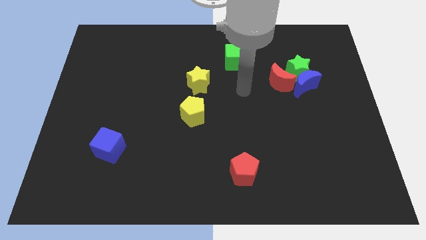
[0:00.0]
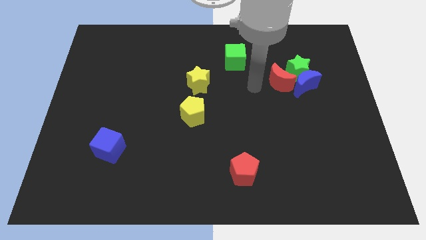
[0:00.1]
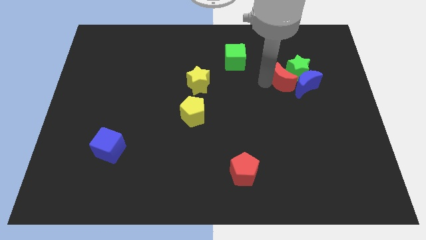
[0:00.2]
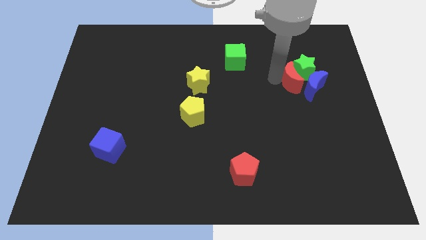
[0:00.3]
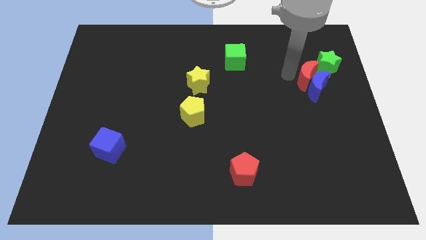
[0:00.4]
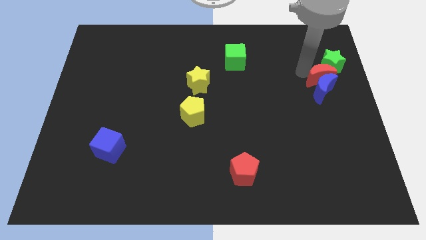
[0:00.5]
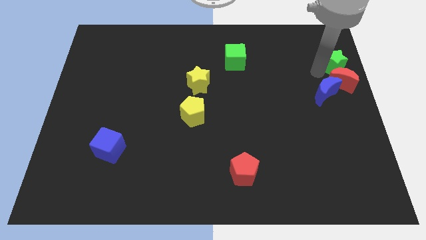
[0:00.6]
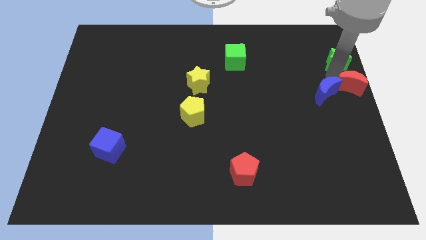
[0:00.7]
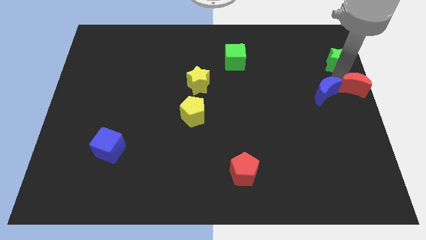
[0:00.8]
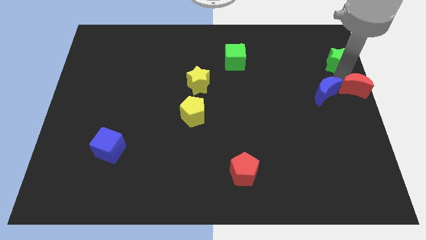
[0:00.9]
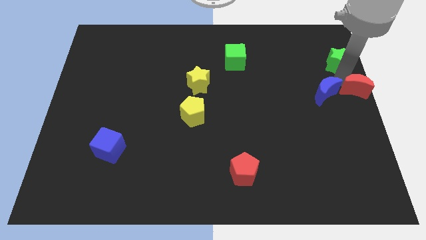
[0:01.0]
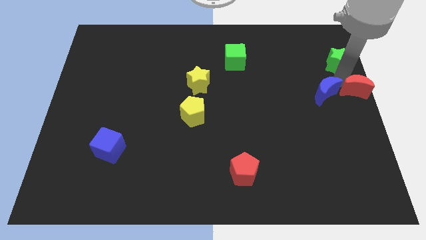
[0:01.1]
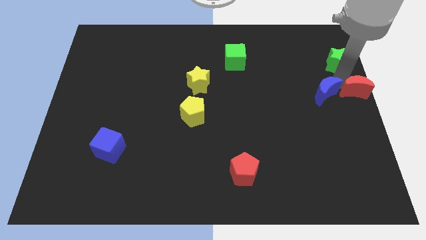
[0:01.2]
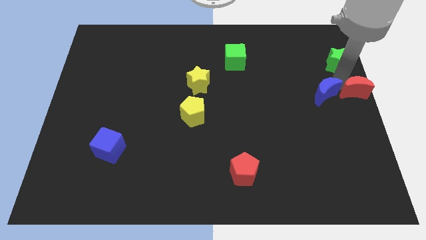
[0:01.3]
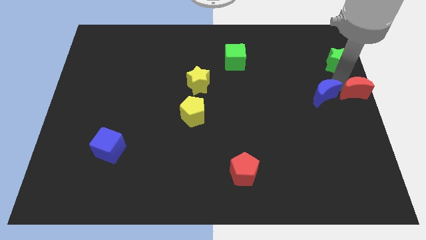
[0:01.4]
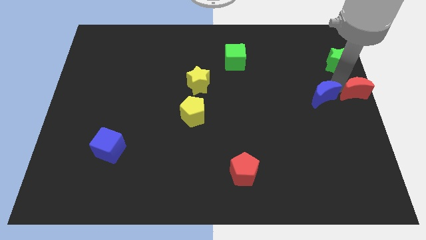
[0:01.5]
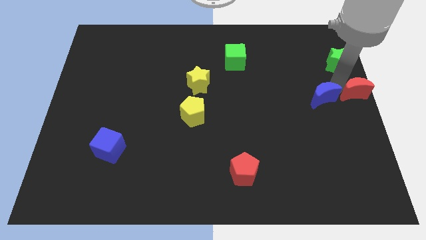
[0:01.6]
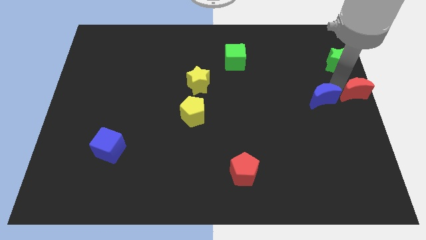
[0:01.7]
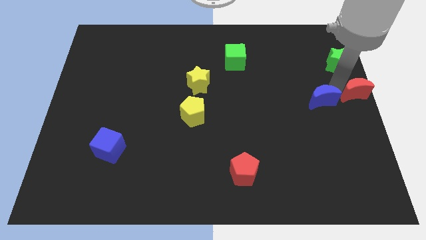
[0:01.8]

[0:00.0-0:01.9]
separate the blue moon from the green star and red moon

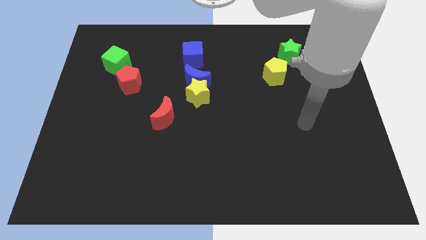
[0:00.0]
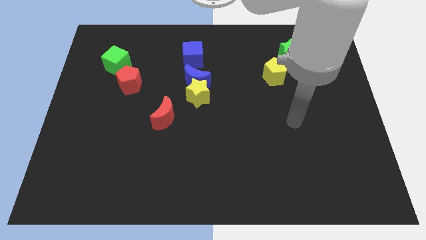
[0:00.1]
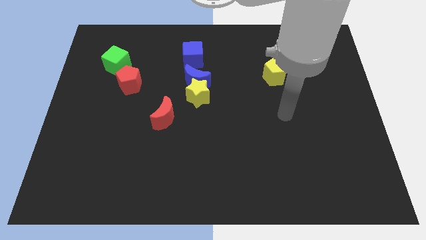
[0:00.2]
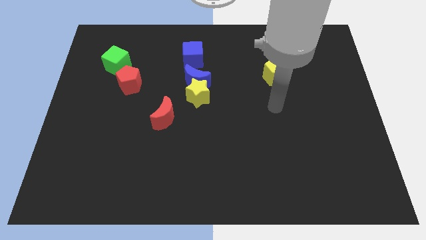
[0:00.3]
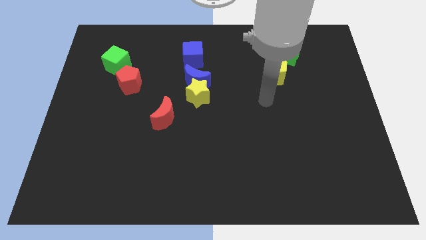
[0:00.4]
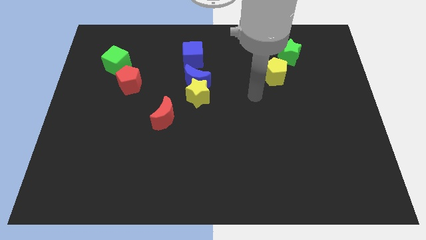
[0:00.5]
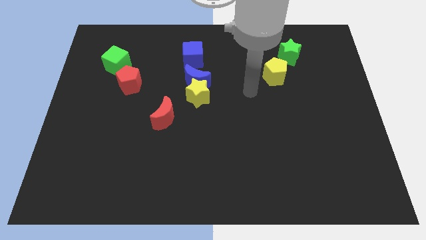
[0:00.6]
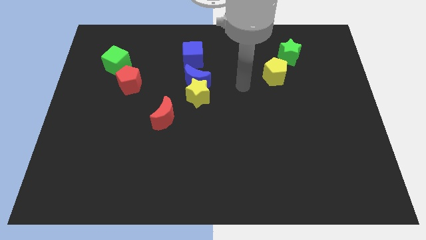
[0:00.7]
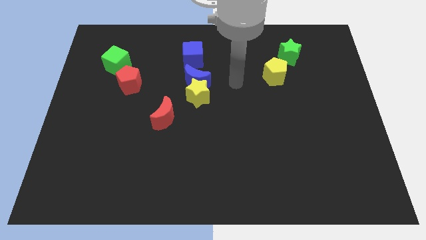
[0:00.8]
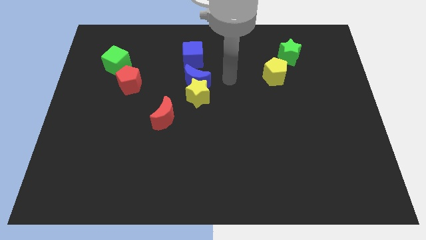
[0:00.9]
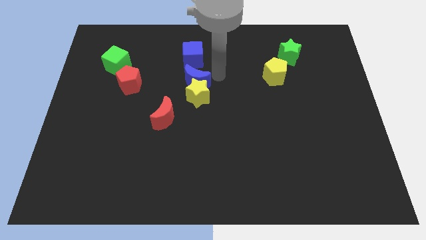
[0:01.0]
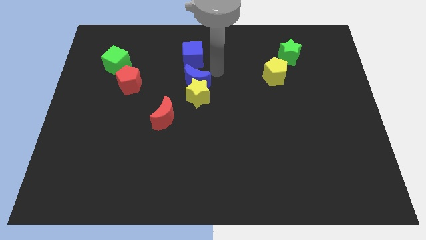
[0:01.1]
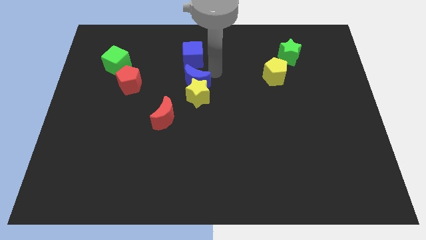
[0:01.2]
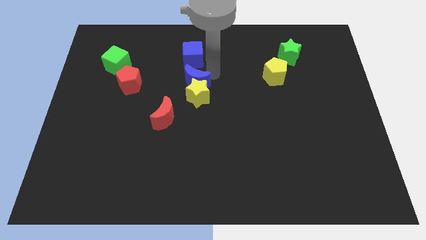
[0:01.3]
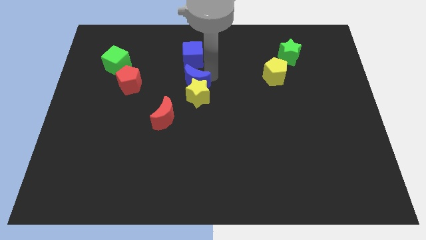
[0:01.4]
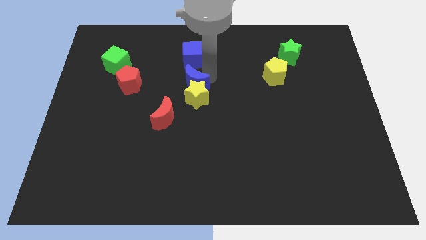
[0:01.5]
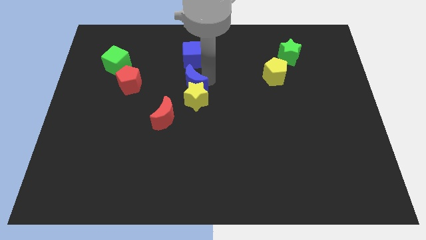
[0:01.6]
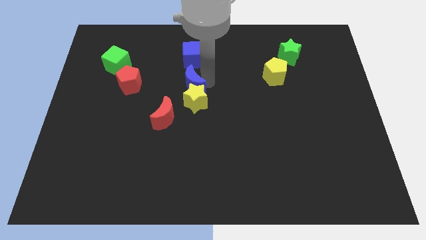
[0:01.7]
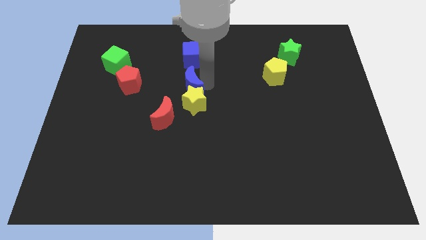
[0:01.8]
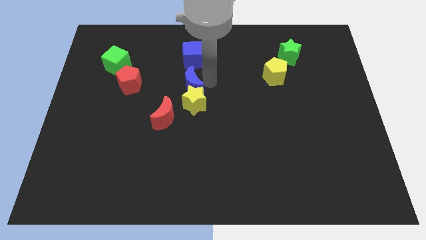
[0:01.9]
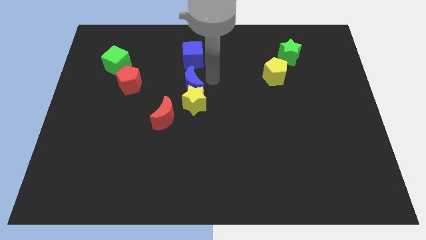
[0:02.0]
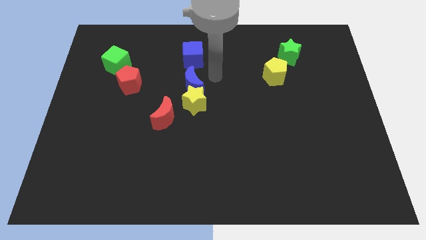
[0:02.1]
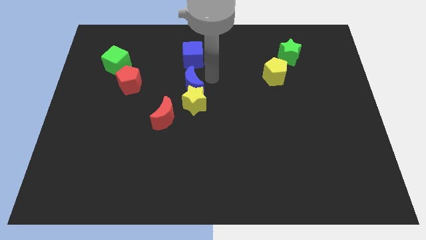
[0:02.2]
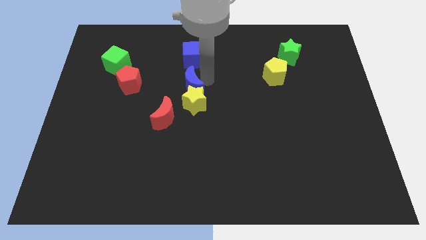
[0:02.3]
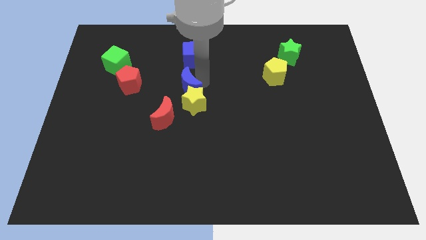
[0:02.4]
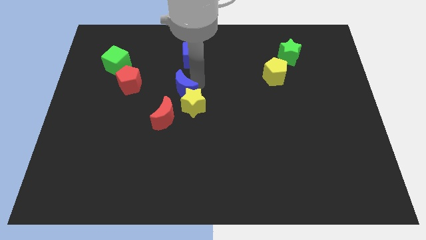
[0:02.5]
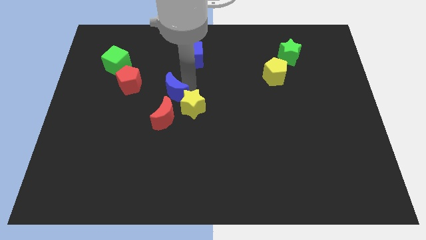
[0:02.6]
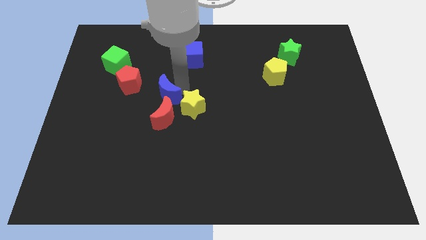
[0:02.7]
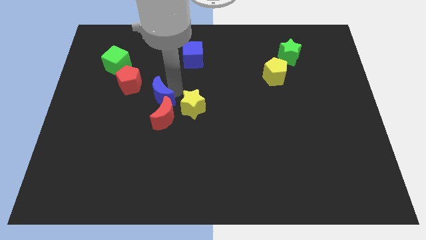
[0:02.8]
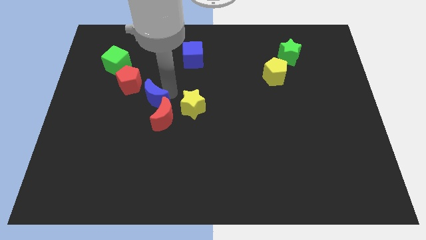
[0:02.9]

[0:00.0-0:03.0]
move the blue moon away from the yellow star and blue cube

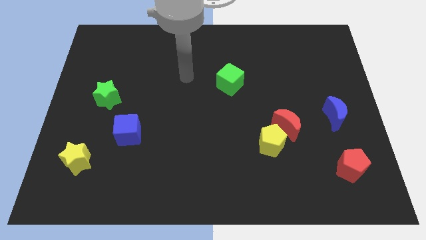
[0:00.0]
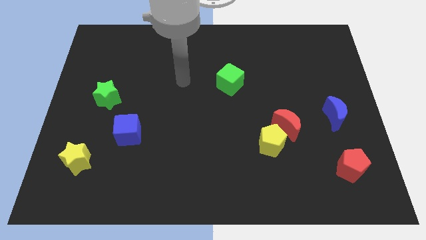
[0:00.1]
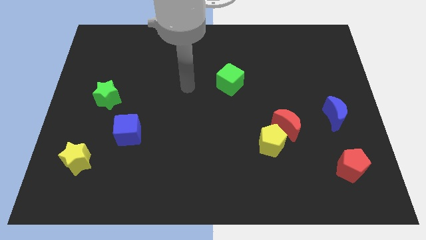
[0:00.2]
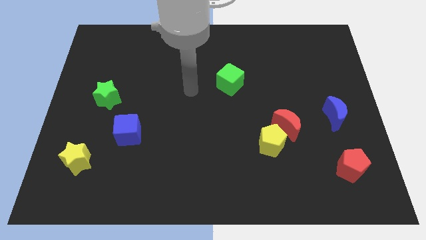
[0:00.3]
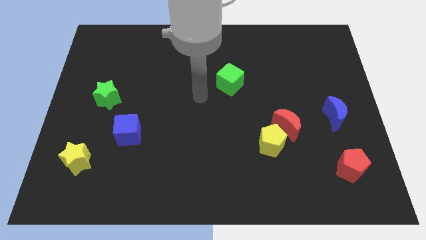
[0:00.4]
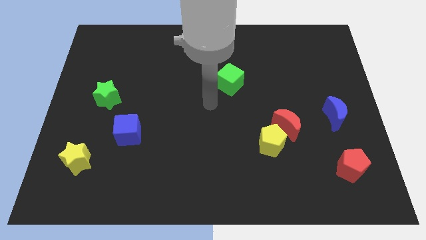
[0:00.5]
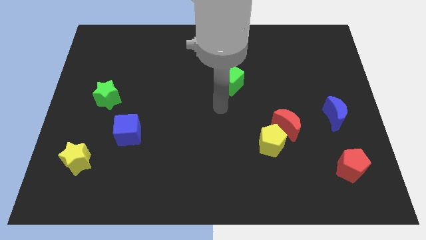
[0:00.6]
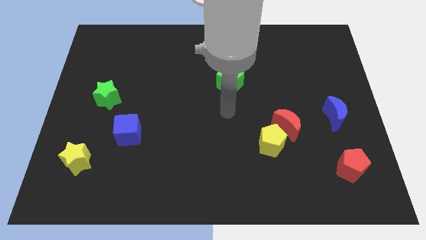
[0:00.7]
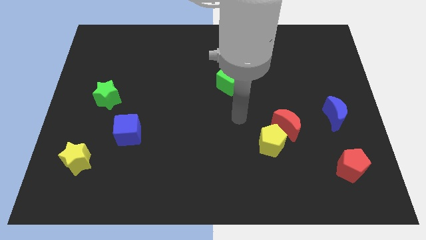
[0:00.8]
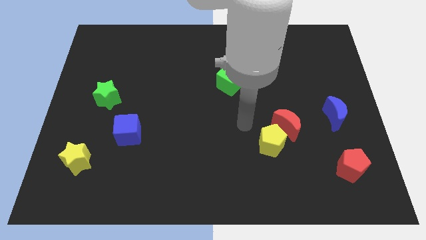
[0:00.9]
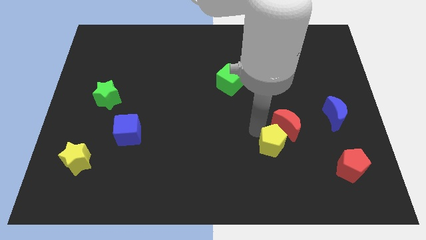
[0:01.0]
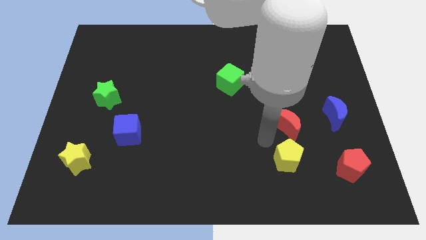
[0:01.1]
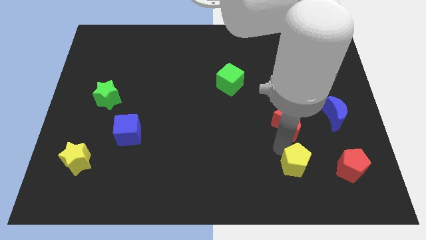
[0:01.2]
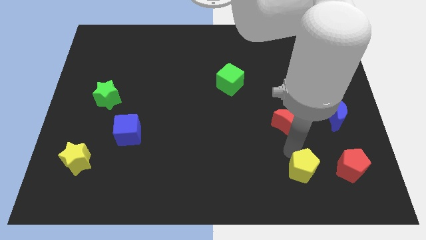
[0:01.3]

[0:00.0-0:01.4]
separate the red moon from the yellow pentagon

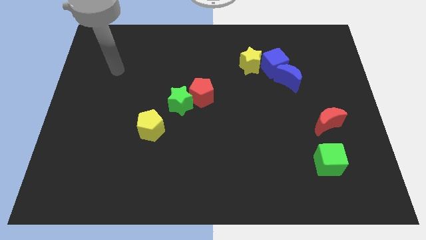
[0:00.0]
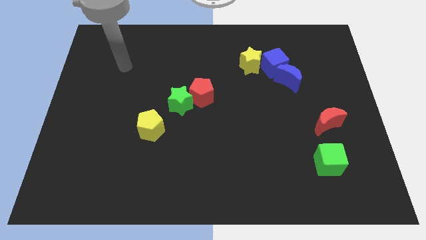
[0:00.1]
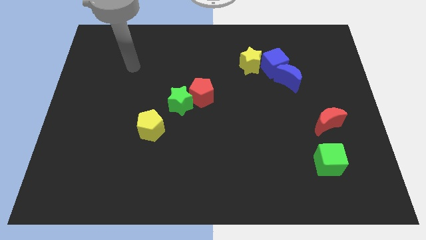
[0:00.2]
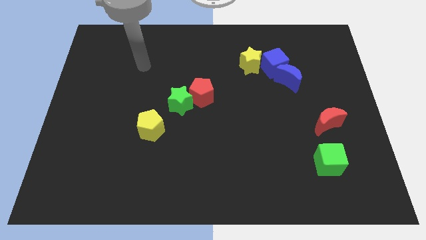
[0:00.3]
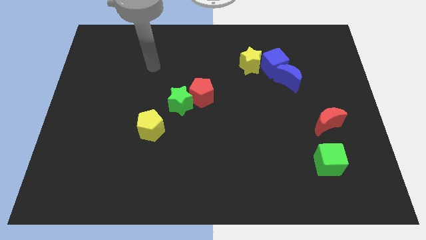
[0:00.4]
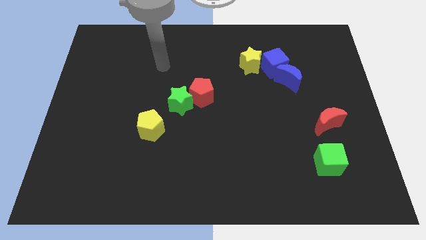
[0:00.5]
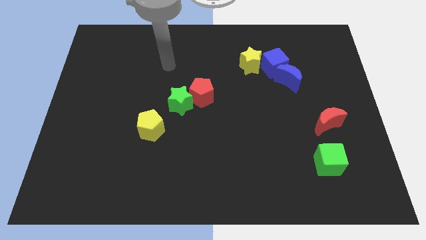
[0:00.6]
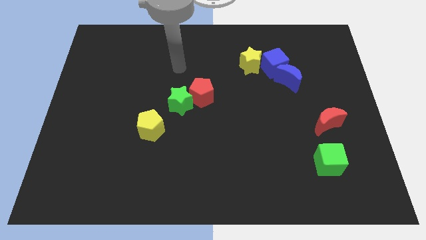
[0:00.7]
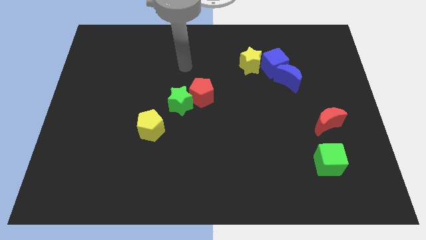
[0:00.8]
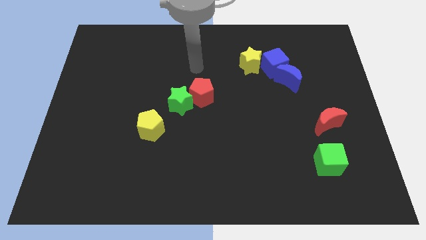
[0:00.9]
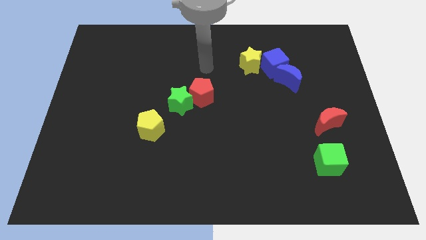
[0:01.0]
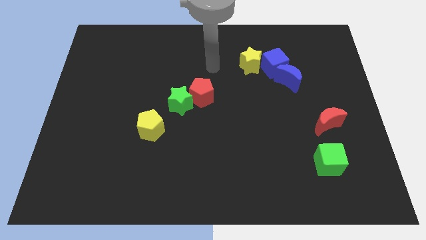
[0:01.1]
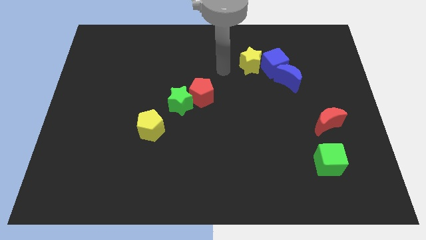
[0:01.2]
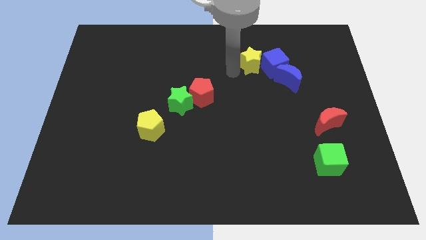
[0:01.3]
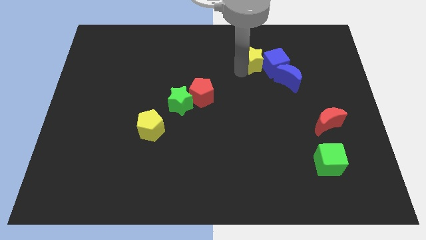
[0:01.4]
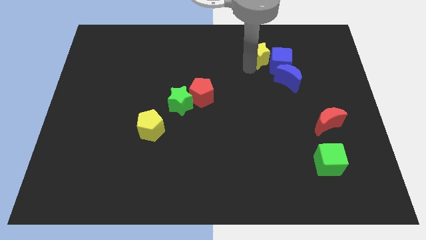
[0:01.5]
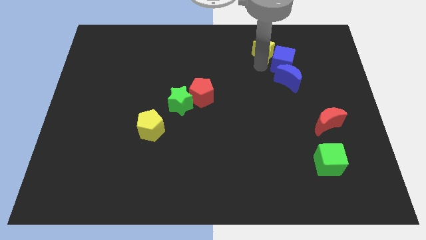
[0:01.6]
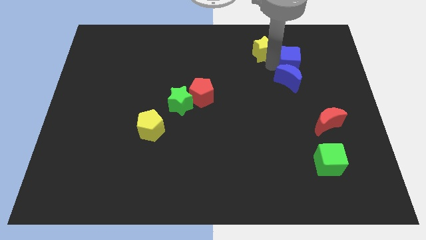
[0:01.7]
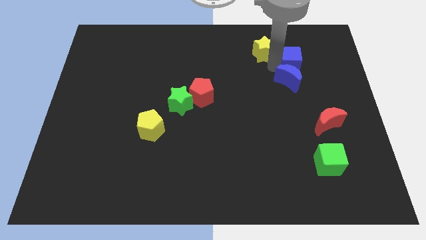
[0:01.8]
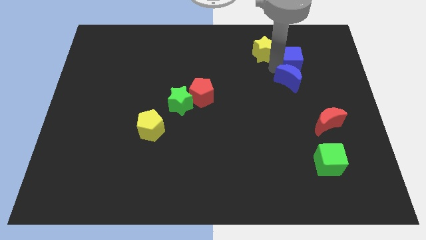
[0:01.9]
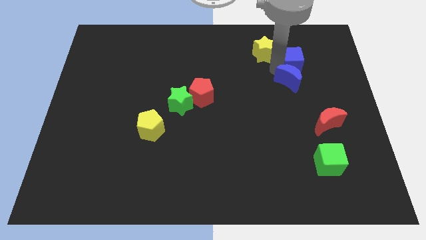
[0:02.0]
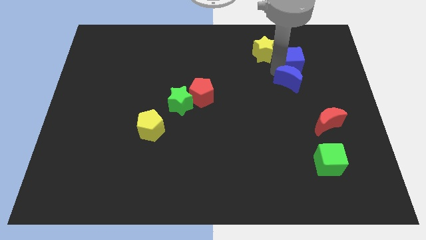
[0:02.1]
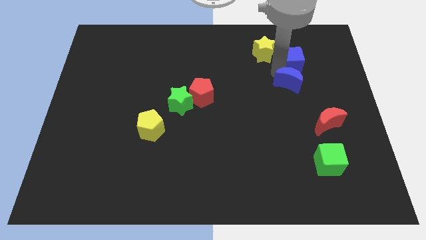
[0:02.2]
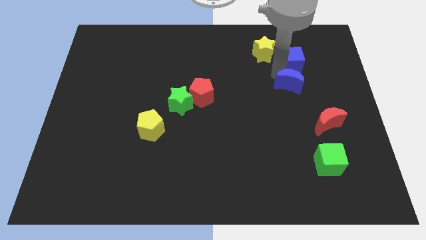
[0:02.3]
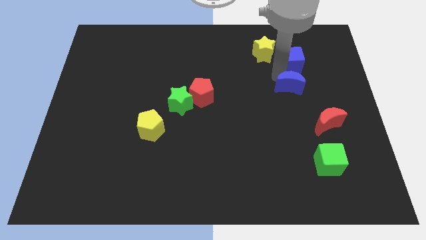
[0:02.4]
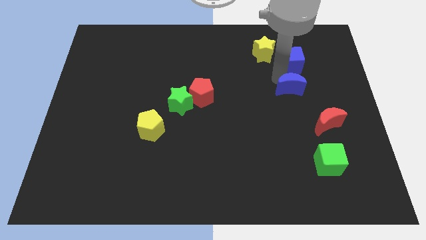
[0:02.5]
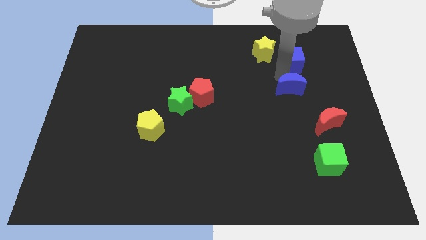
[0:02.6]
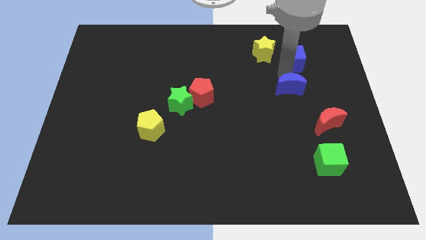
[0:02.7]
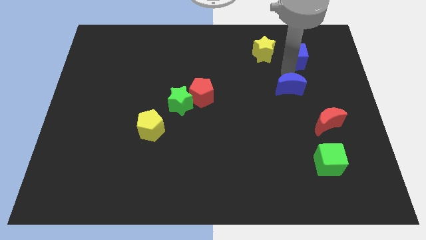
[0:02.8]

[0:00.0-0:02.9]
move the blue moon away from the blue cube

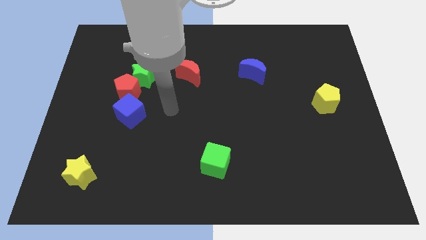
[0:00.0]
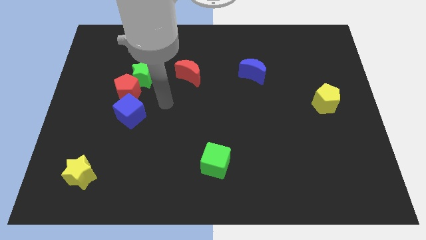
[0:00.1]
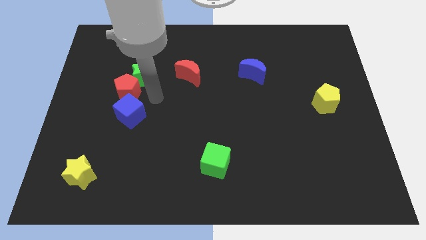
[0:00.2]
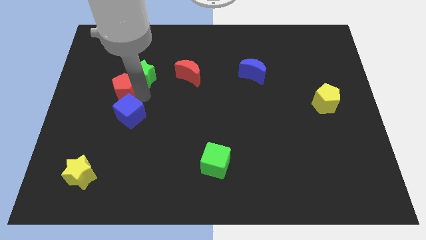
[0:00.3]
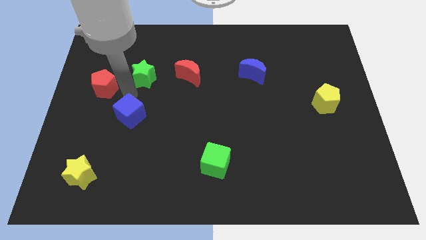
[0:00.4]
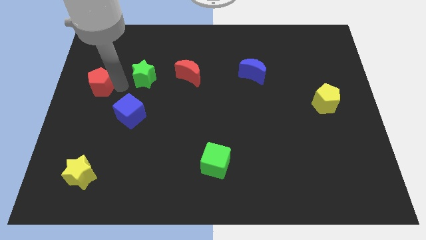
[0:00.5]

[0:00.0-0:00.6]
move the green star away from the red pentagon
